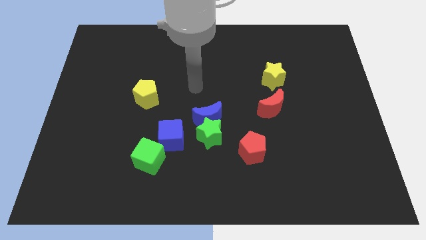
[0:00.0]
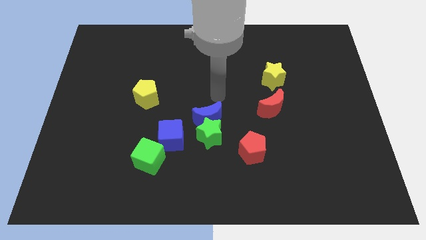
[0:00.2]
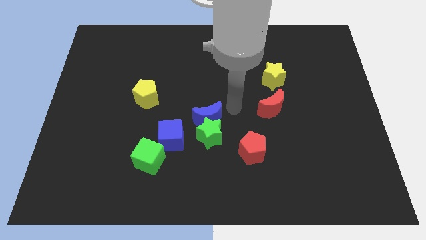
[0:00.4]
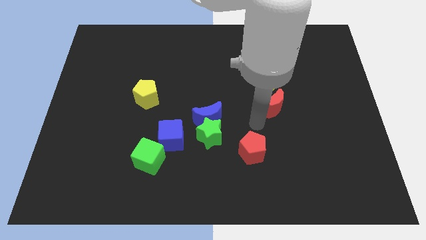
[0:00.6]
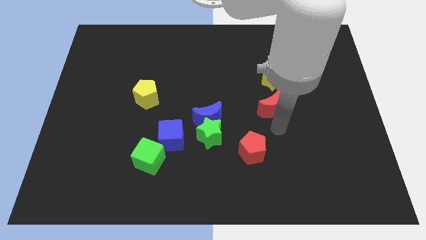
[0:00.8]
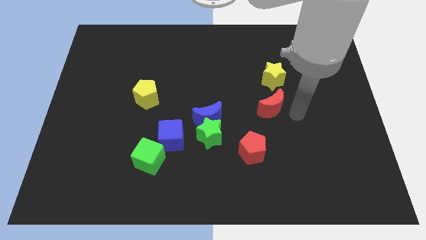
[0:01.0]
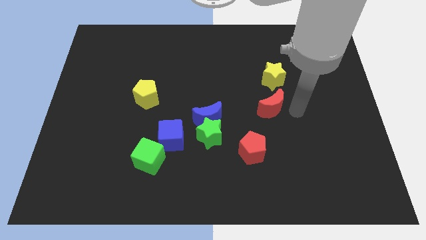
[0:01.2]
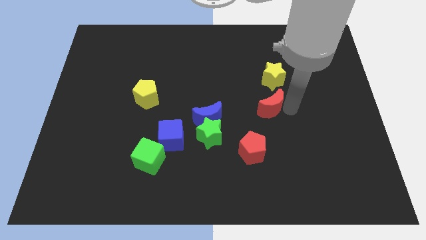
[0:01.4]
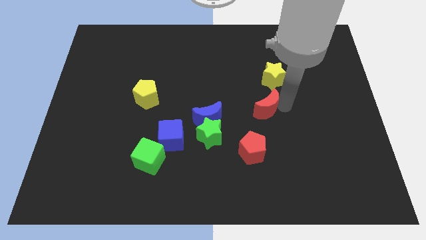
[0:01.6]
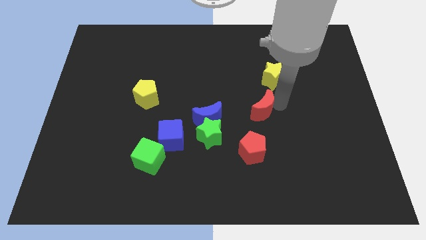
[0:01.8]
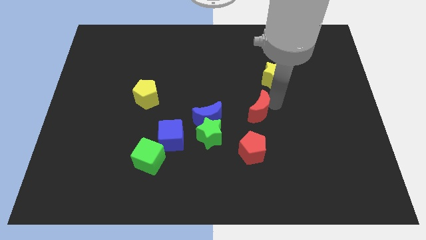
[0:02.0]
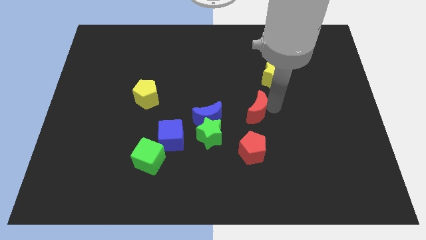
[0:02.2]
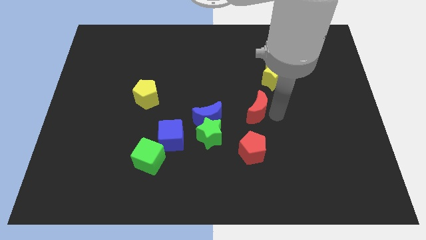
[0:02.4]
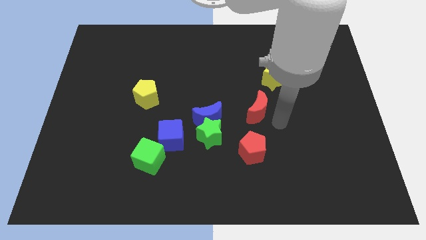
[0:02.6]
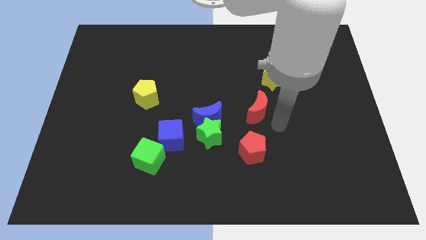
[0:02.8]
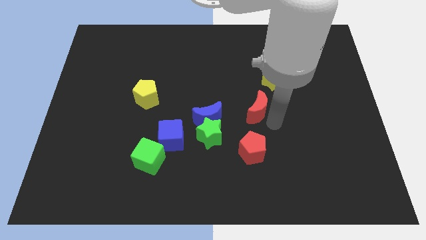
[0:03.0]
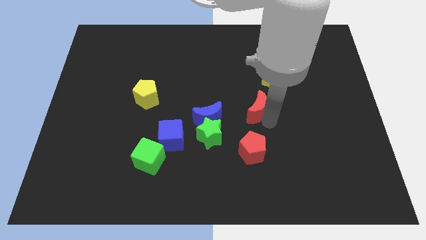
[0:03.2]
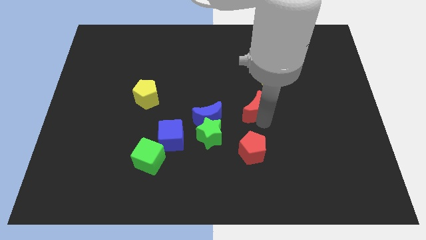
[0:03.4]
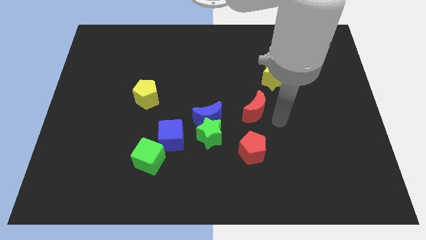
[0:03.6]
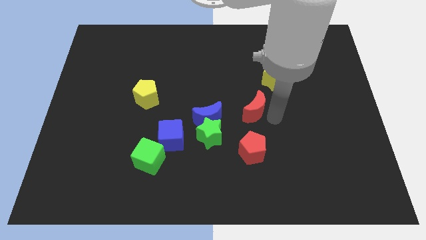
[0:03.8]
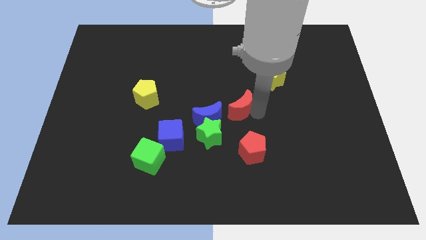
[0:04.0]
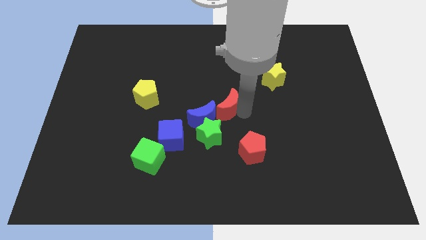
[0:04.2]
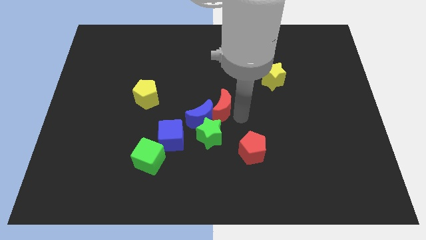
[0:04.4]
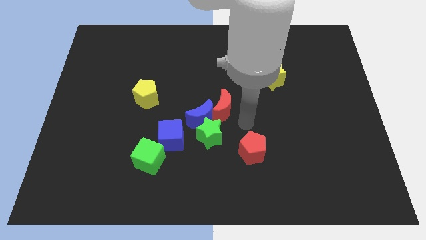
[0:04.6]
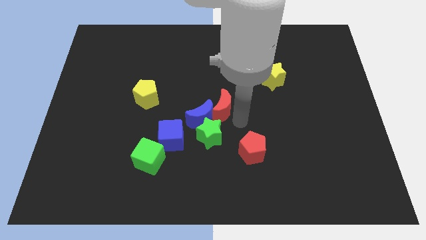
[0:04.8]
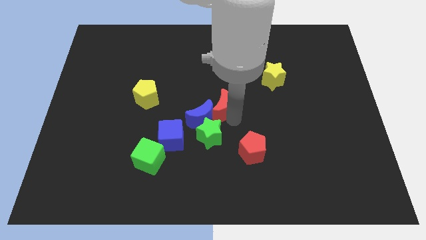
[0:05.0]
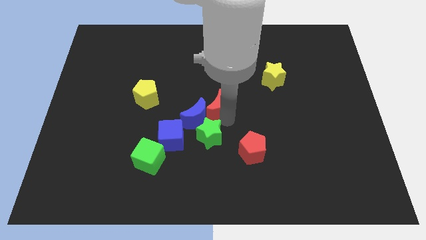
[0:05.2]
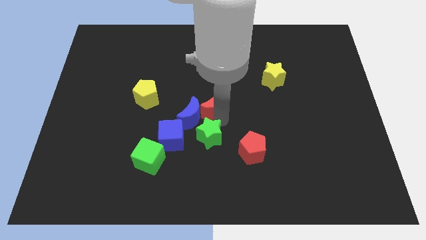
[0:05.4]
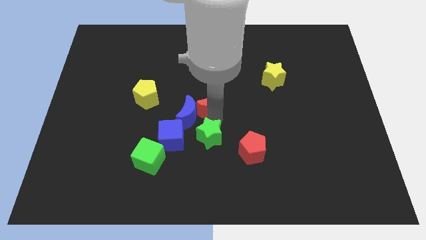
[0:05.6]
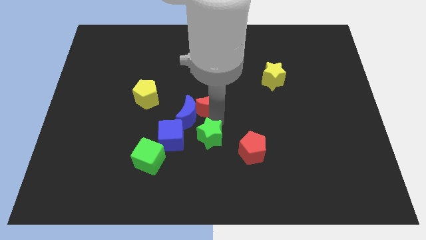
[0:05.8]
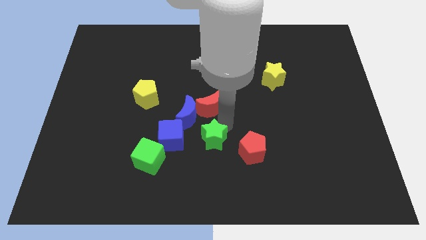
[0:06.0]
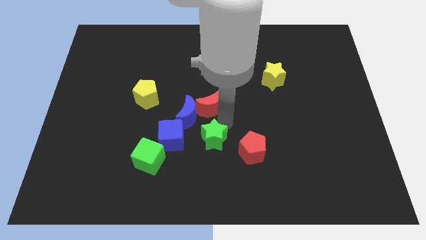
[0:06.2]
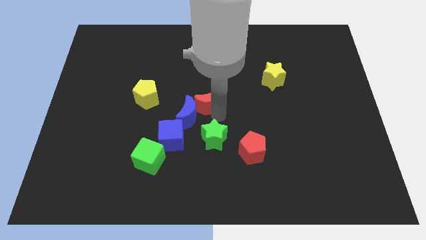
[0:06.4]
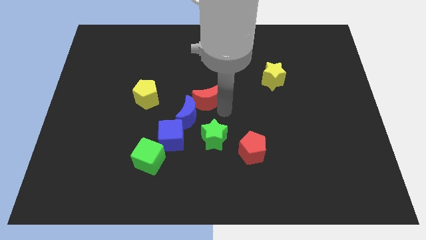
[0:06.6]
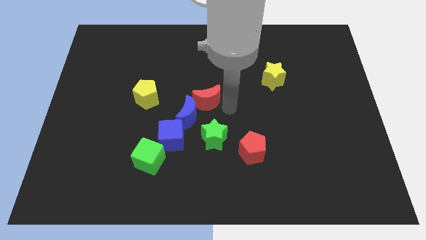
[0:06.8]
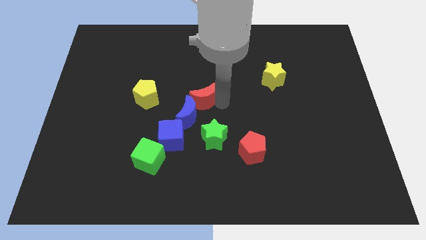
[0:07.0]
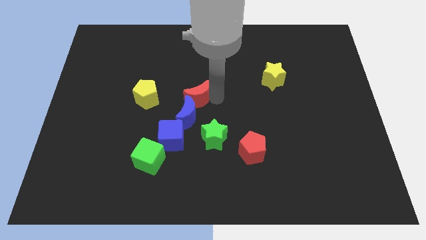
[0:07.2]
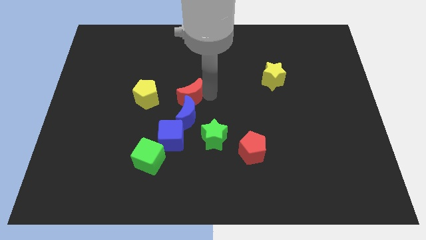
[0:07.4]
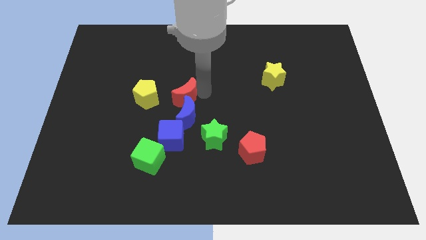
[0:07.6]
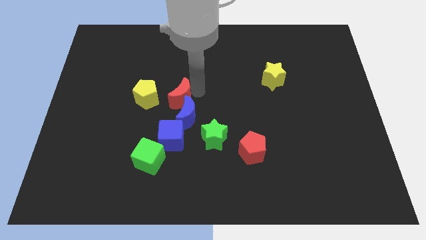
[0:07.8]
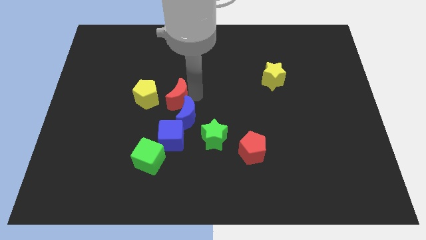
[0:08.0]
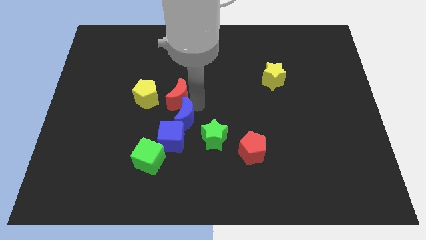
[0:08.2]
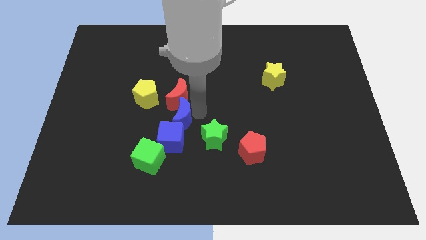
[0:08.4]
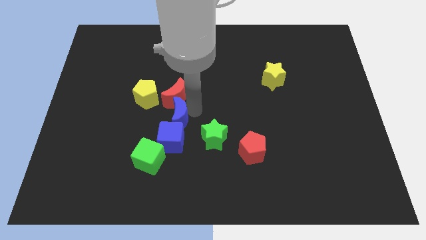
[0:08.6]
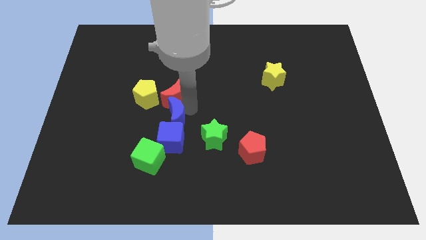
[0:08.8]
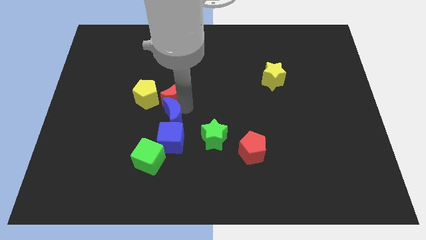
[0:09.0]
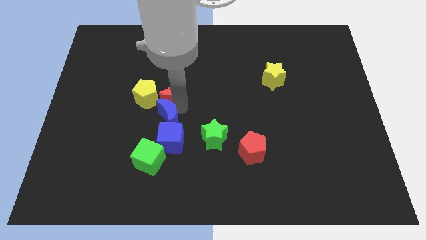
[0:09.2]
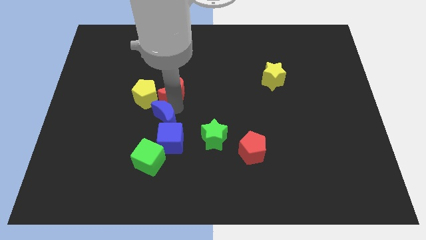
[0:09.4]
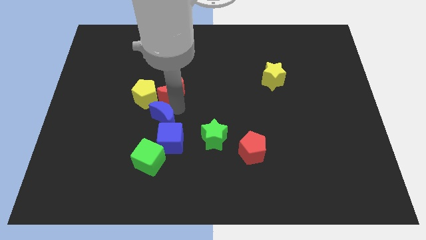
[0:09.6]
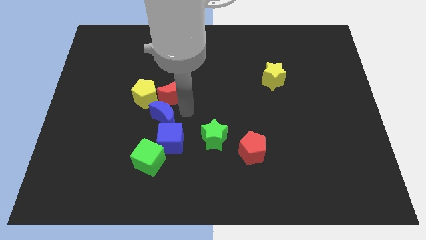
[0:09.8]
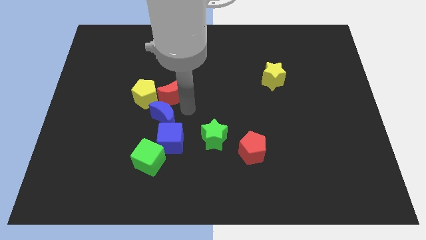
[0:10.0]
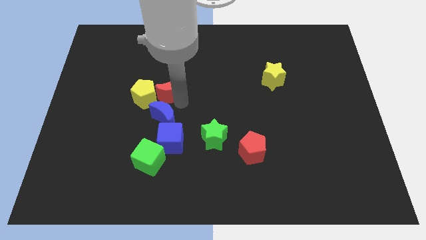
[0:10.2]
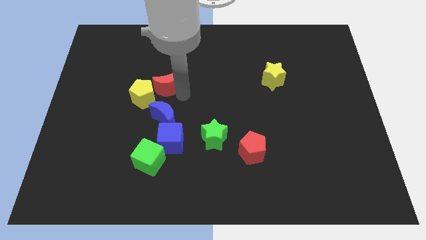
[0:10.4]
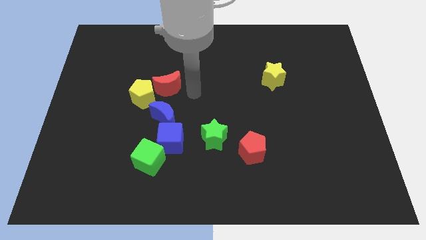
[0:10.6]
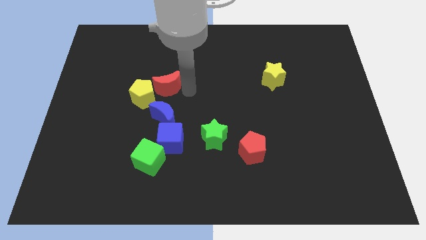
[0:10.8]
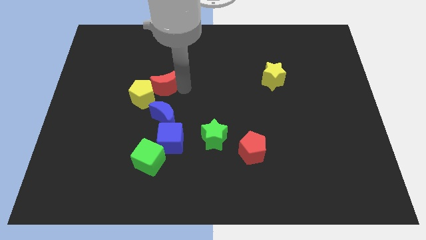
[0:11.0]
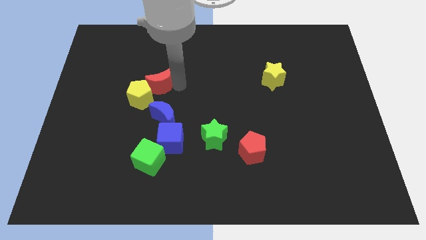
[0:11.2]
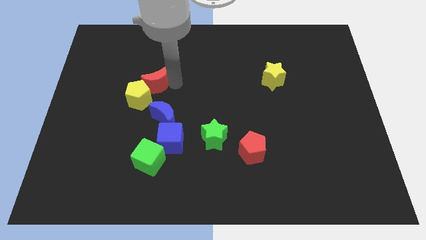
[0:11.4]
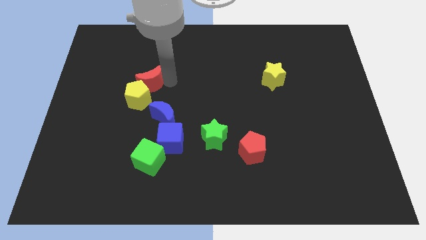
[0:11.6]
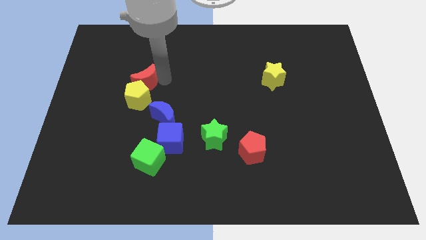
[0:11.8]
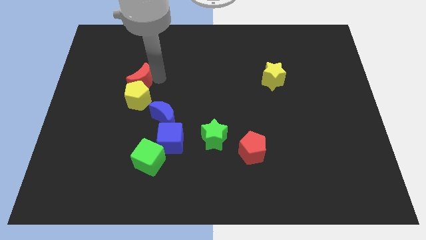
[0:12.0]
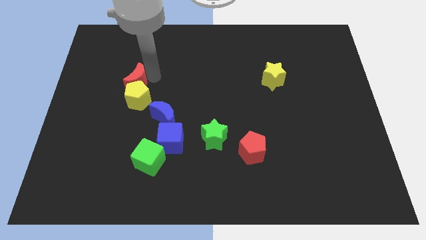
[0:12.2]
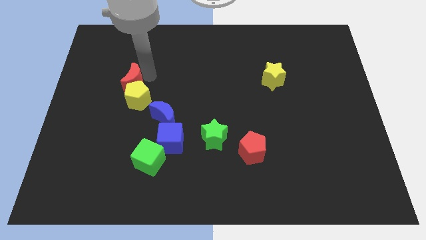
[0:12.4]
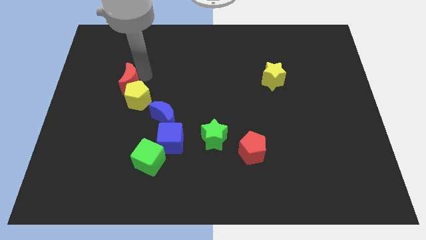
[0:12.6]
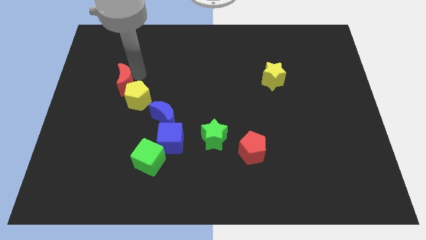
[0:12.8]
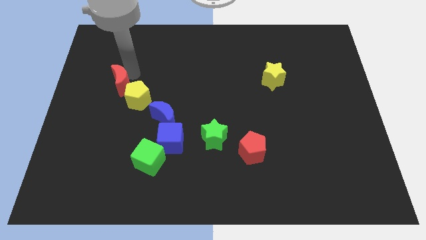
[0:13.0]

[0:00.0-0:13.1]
move the red moon left of the yellow pentagon

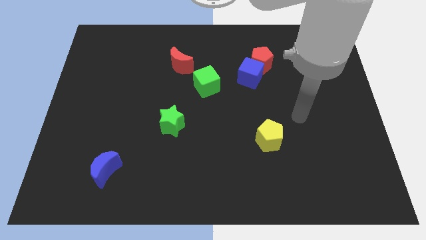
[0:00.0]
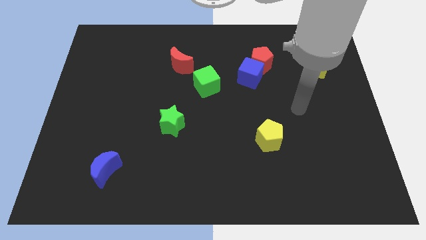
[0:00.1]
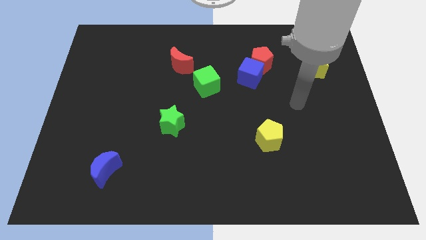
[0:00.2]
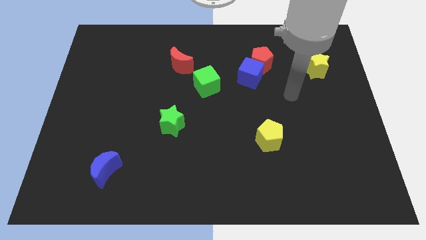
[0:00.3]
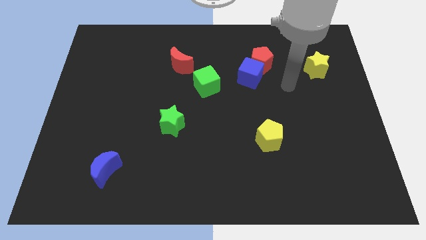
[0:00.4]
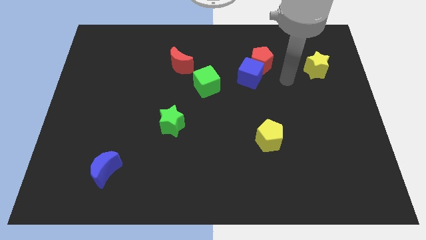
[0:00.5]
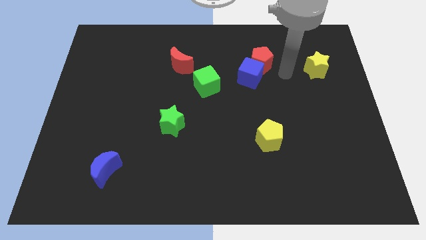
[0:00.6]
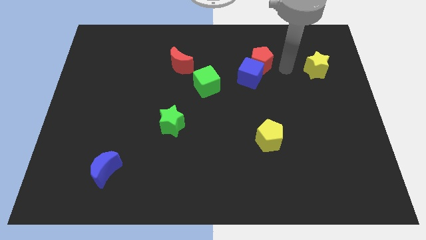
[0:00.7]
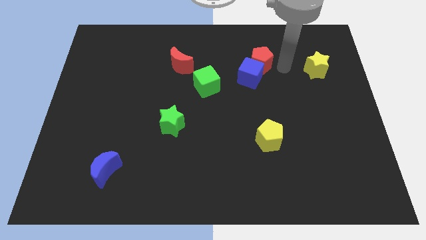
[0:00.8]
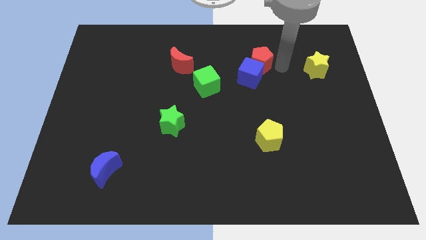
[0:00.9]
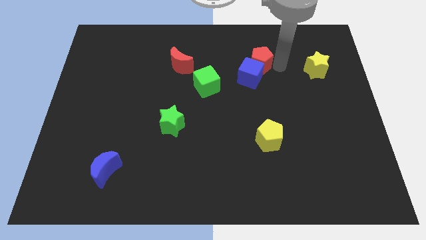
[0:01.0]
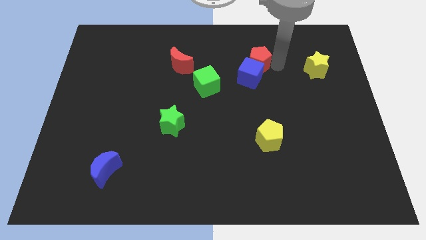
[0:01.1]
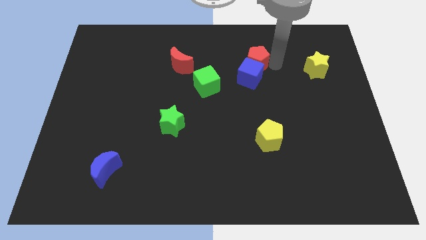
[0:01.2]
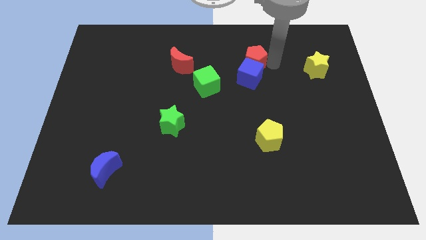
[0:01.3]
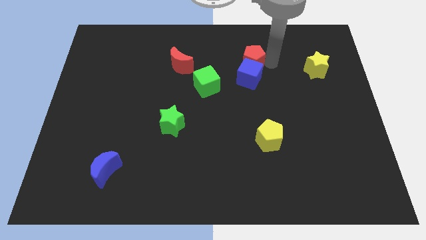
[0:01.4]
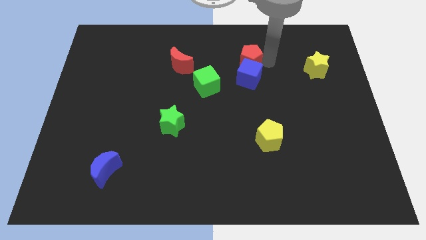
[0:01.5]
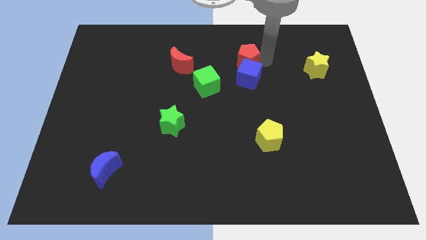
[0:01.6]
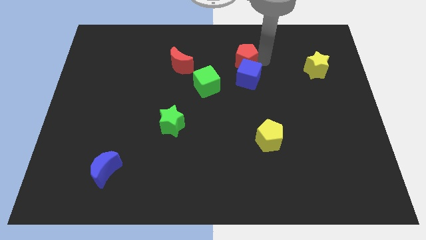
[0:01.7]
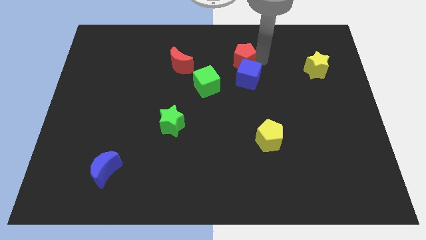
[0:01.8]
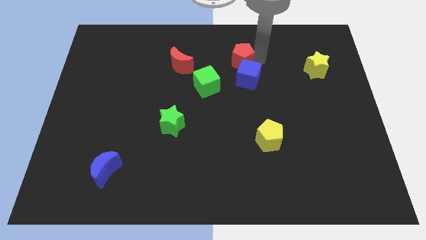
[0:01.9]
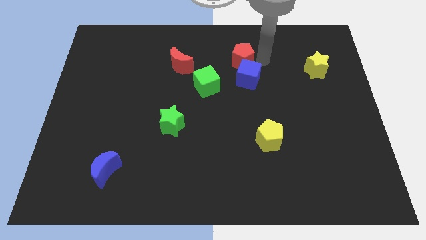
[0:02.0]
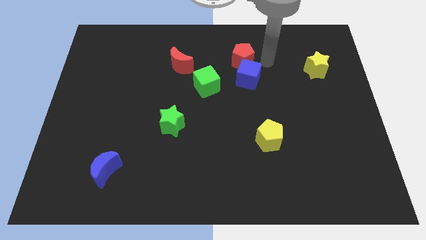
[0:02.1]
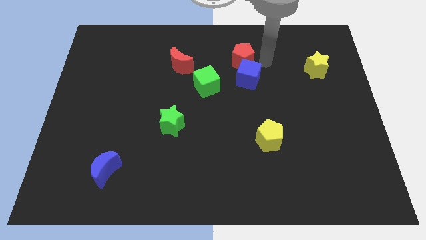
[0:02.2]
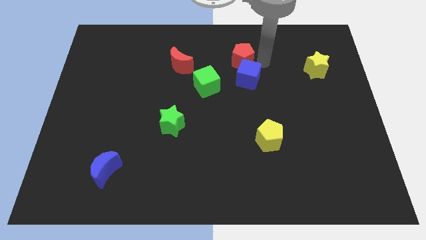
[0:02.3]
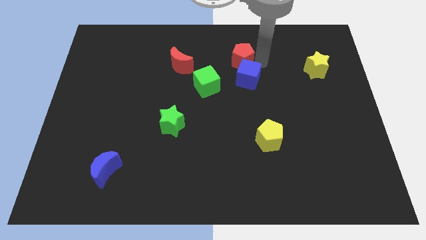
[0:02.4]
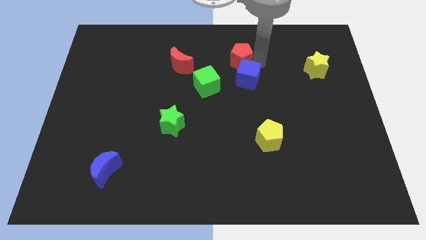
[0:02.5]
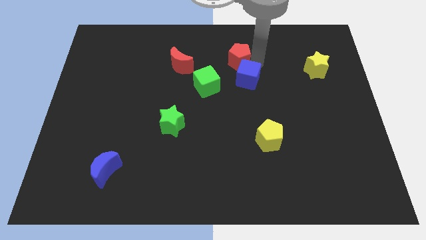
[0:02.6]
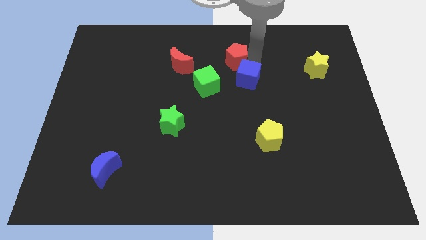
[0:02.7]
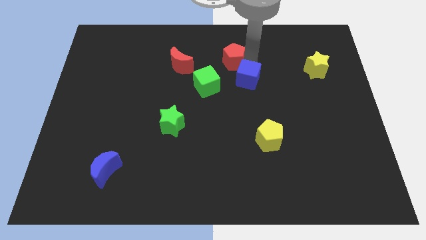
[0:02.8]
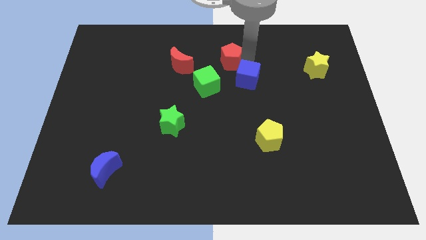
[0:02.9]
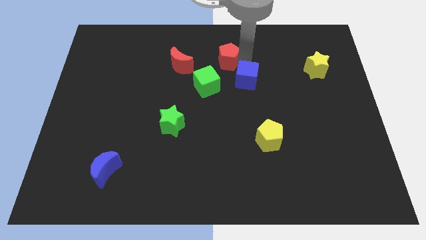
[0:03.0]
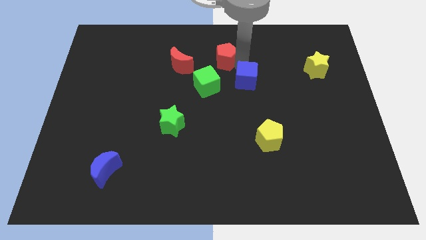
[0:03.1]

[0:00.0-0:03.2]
put the red pentagon above the green cube
